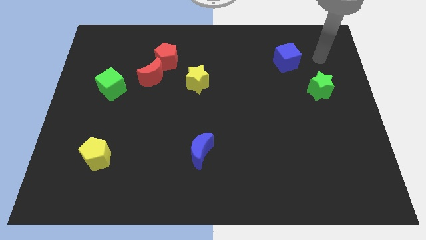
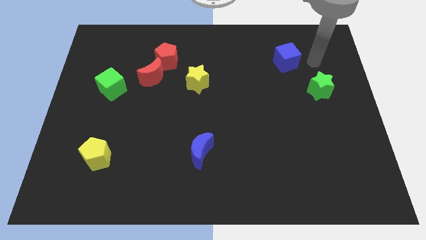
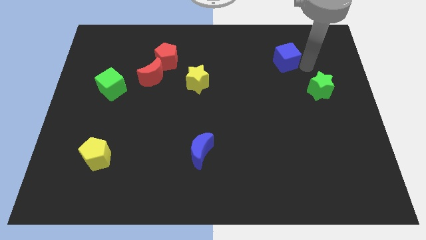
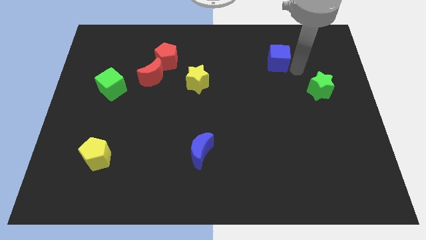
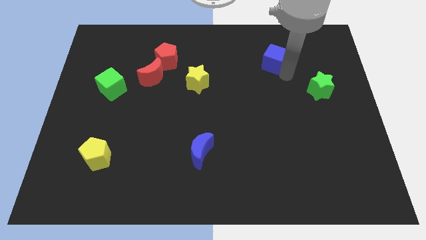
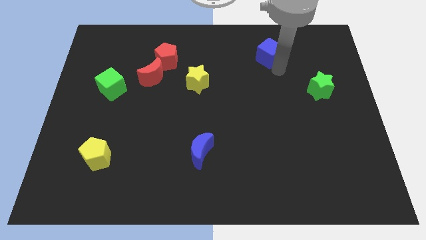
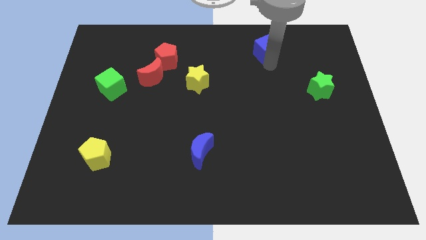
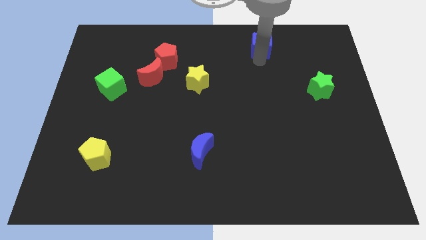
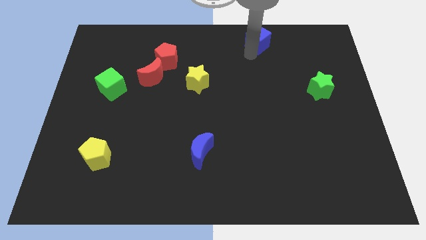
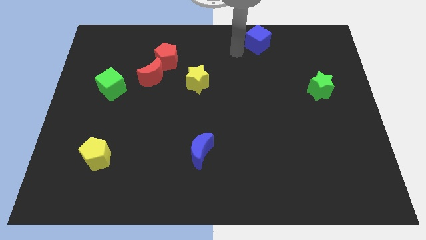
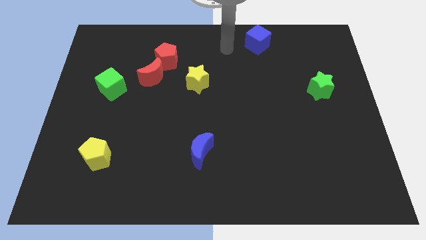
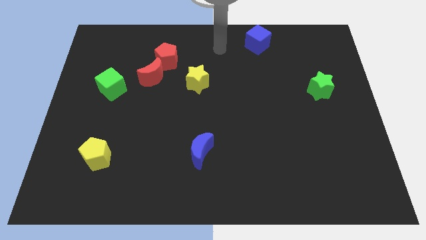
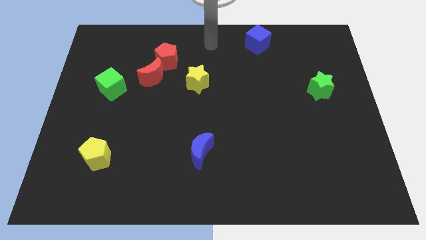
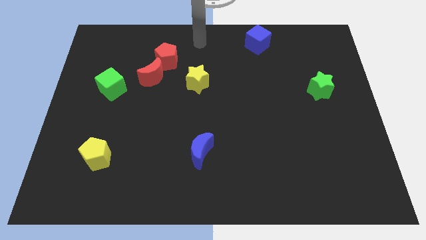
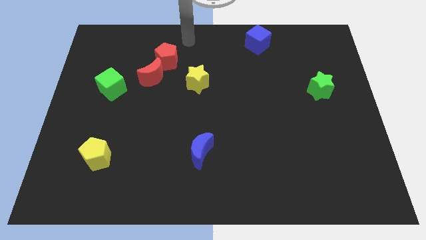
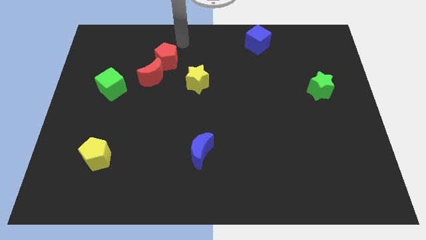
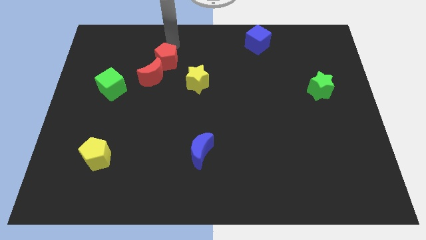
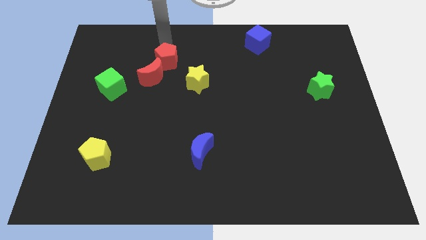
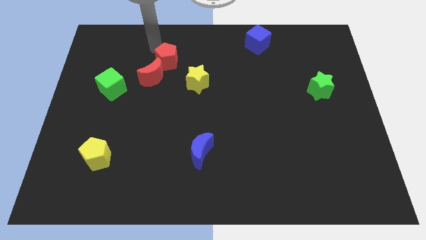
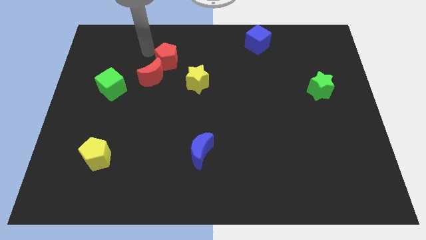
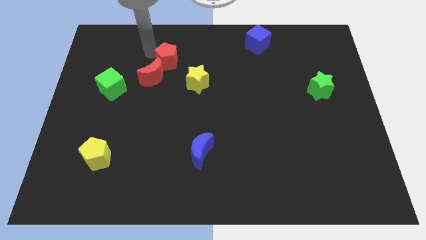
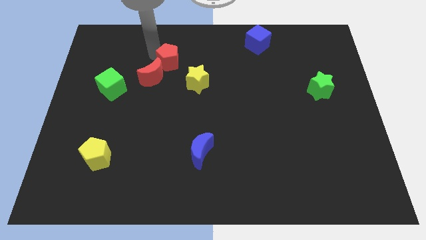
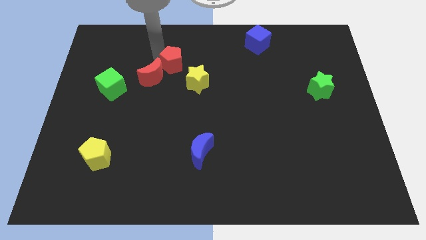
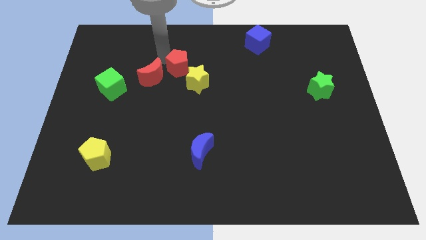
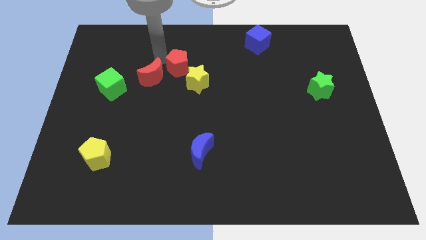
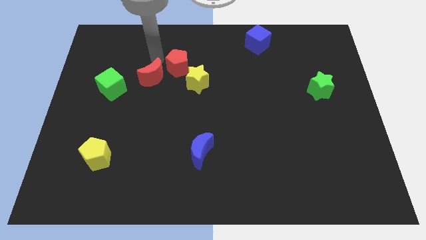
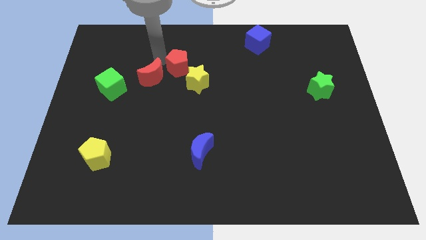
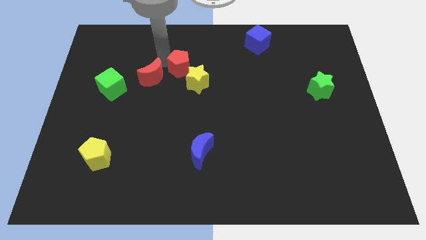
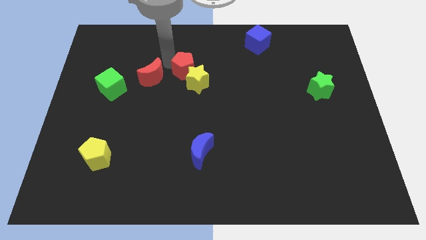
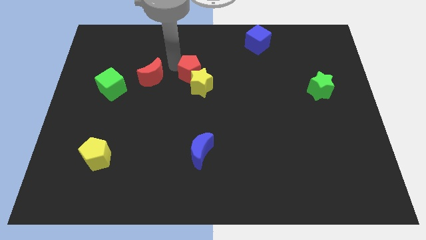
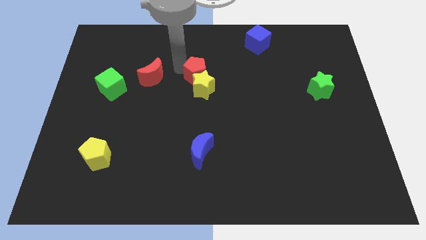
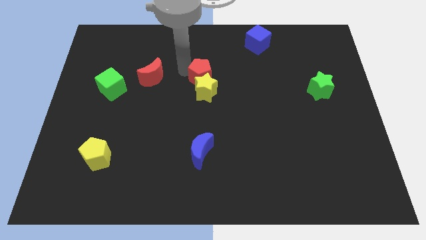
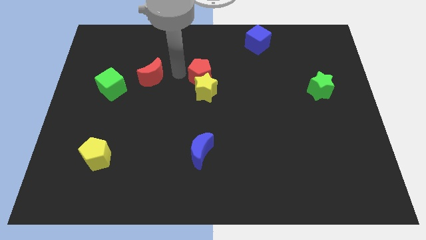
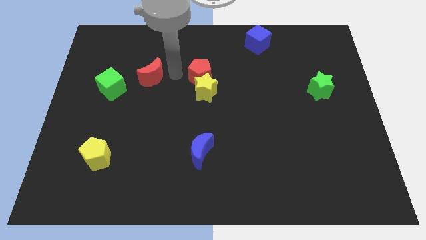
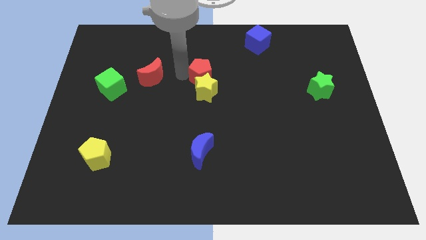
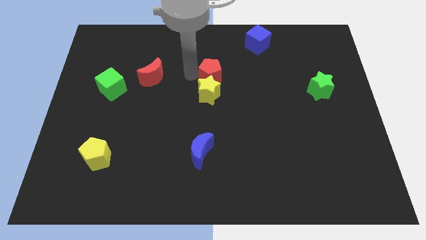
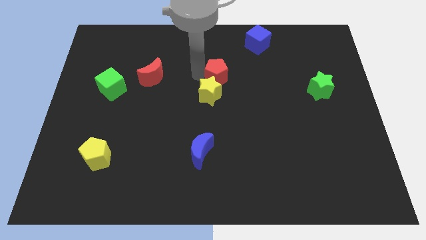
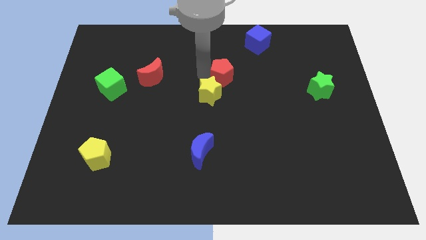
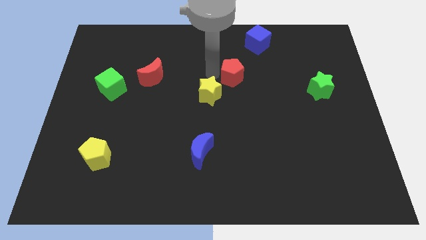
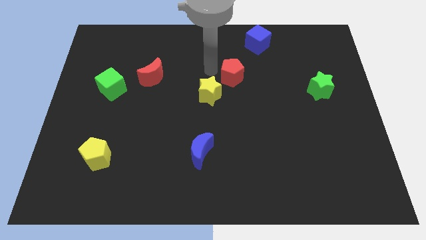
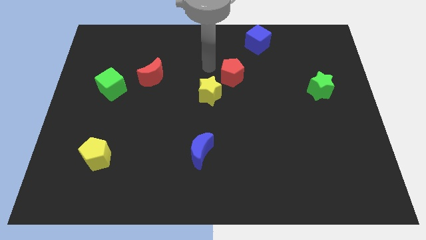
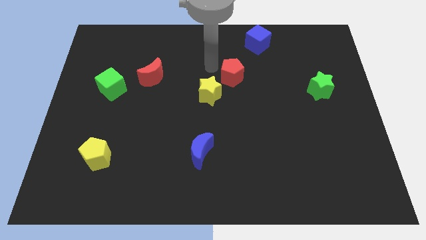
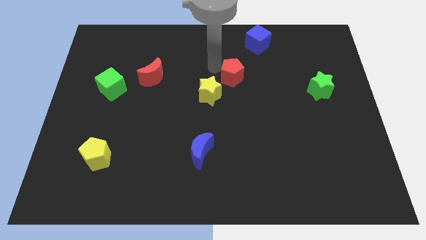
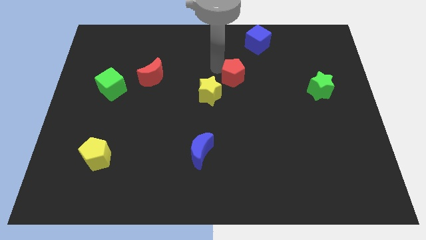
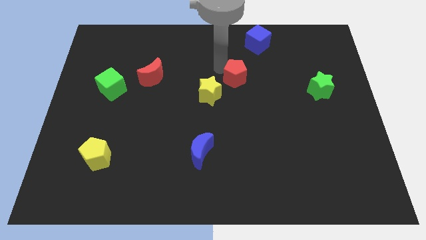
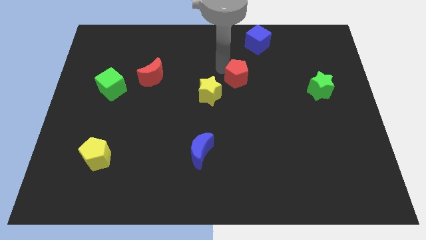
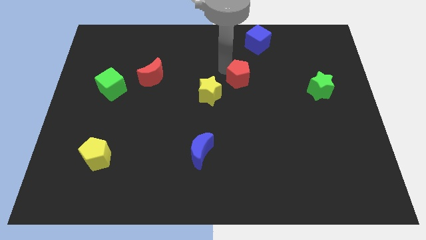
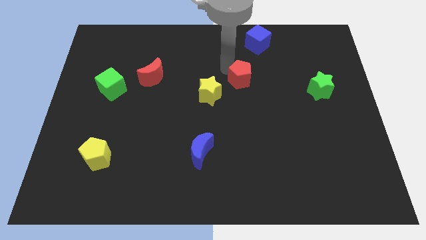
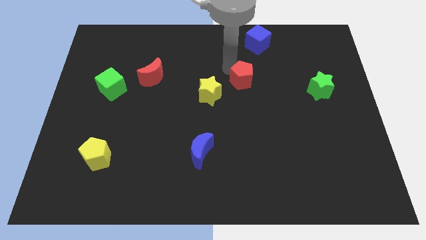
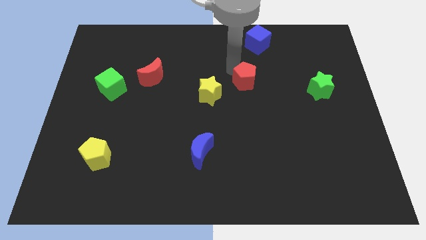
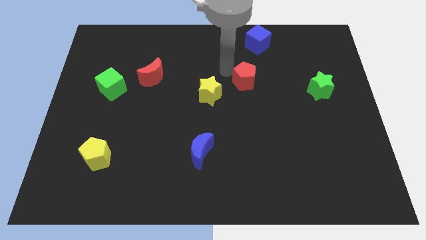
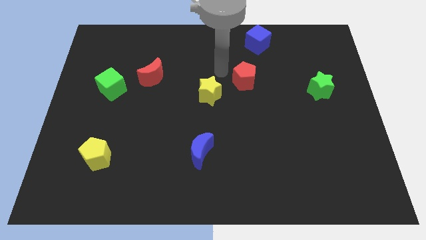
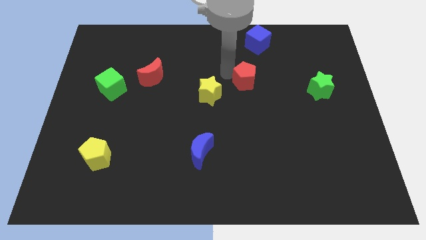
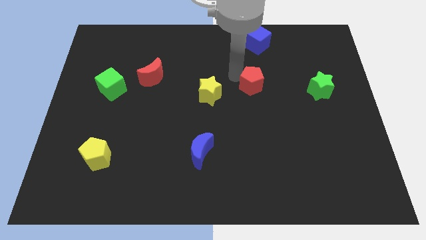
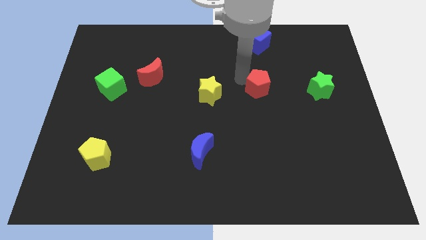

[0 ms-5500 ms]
slide the red pentagon left of the green star

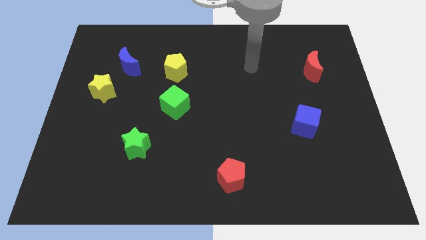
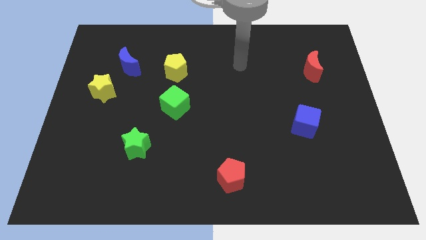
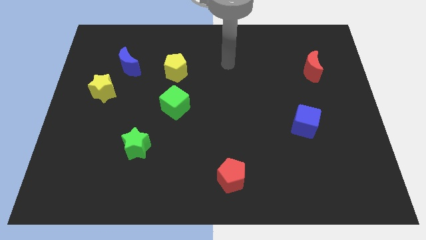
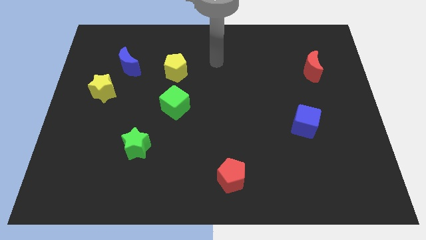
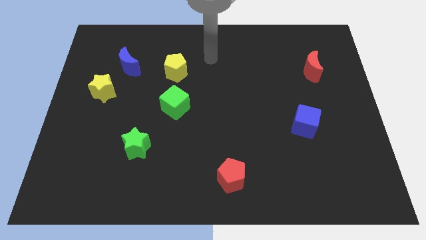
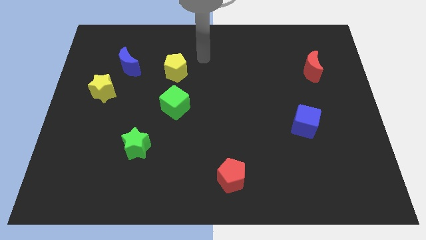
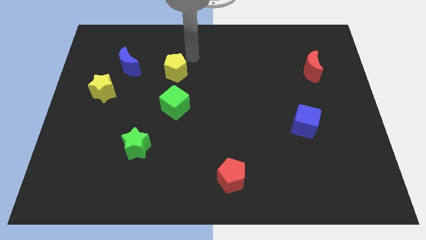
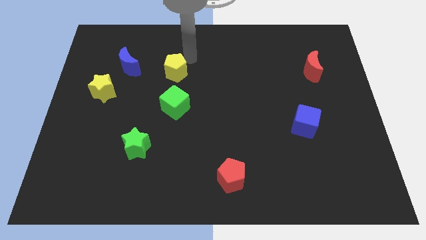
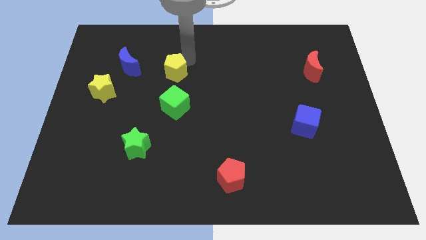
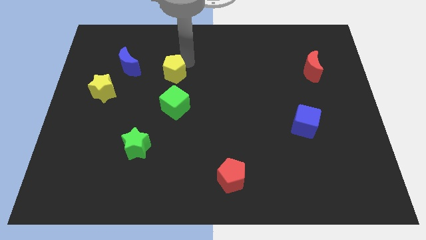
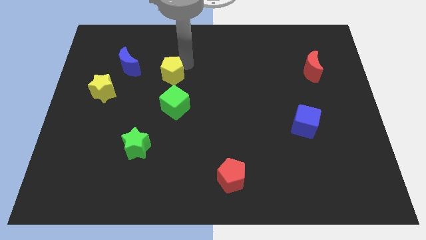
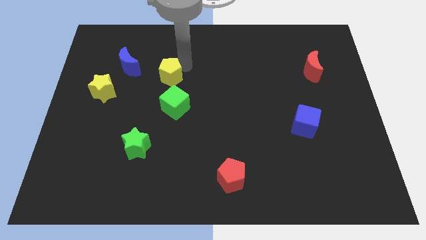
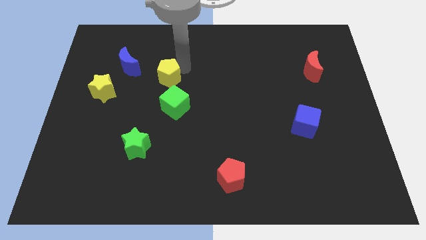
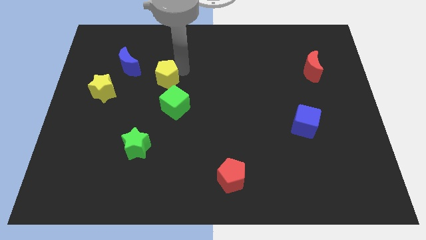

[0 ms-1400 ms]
move the yellow pentagon to the top left of the green cube
